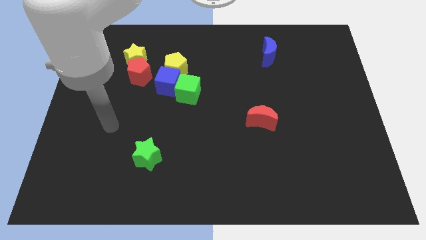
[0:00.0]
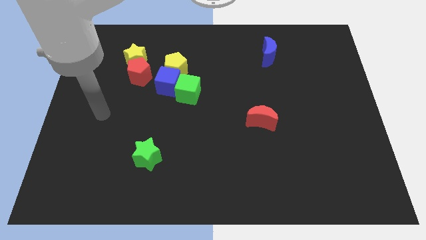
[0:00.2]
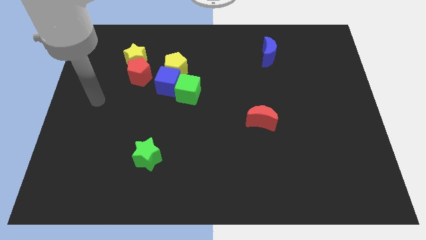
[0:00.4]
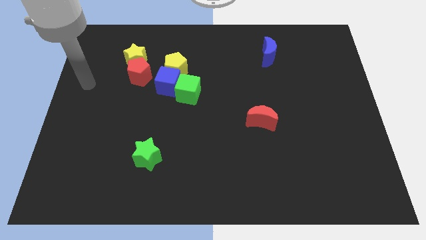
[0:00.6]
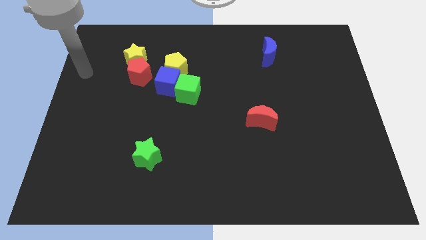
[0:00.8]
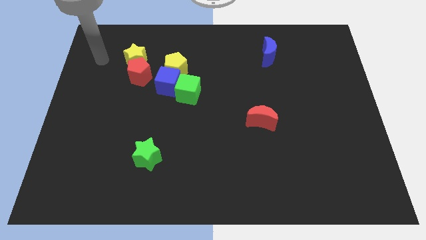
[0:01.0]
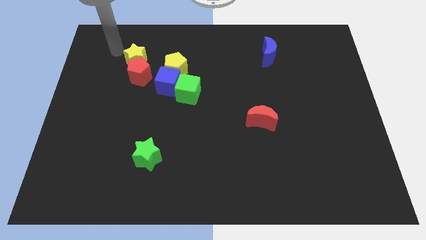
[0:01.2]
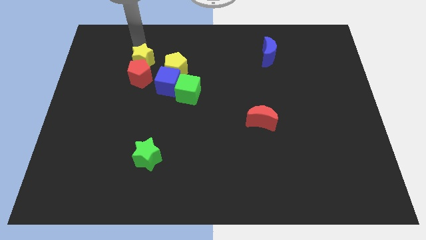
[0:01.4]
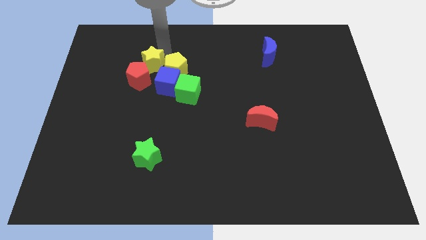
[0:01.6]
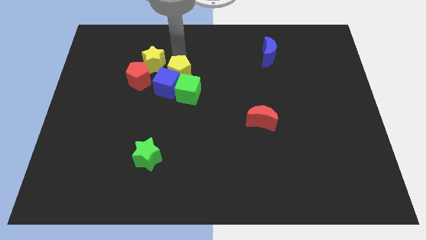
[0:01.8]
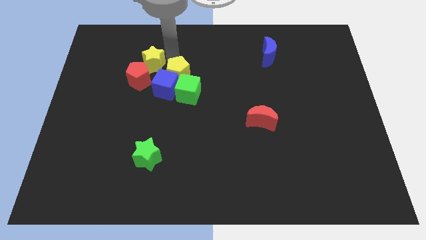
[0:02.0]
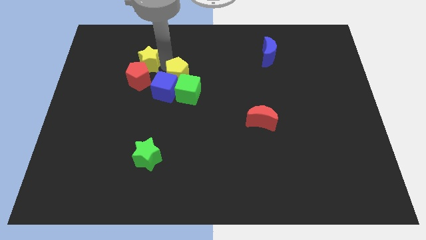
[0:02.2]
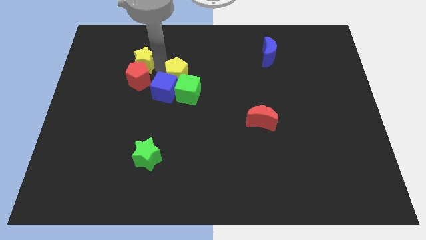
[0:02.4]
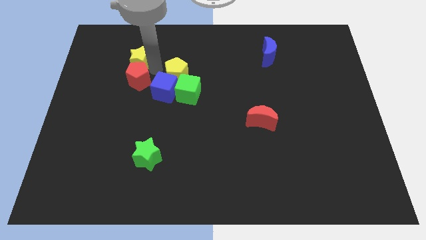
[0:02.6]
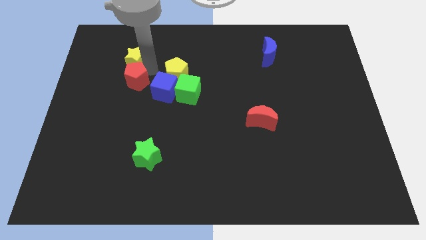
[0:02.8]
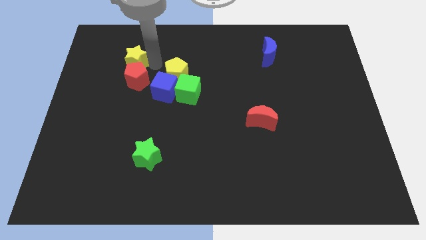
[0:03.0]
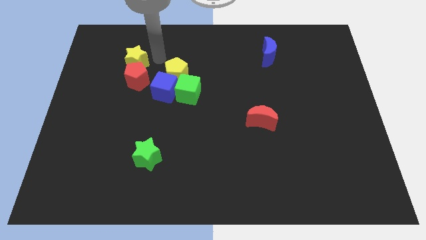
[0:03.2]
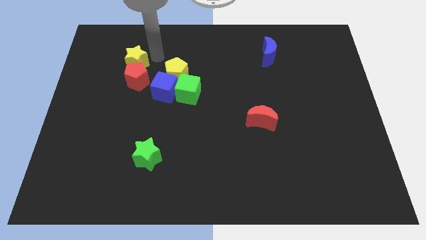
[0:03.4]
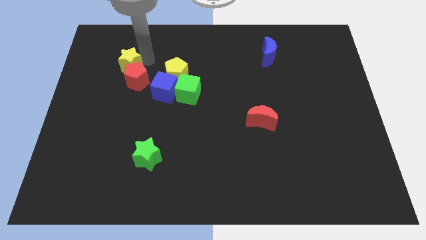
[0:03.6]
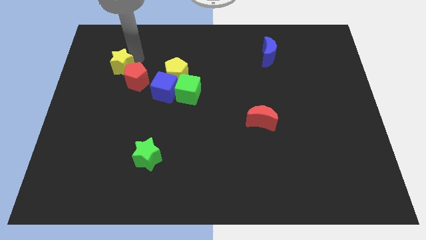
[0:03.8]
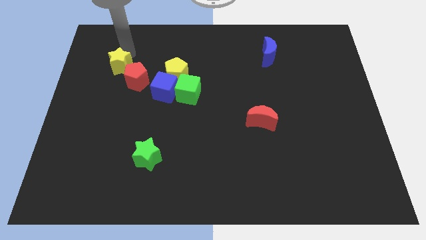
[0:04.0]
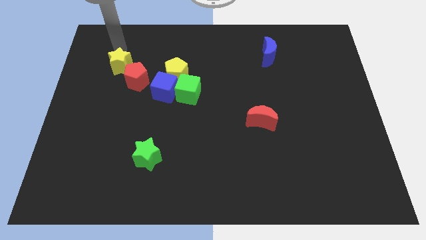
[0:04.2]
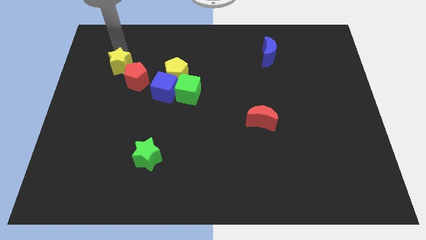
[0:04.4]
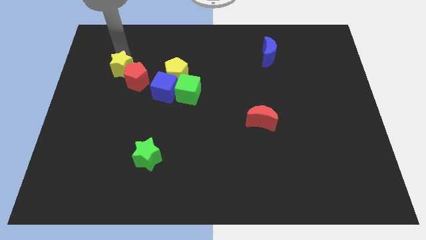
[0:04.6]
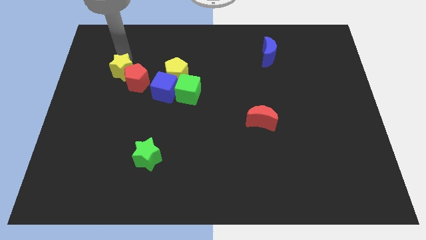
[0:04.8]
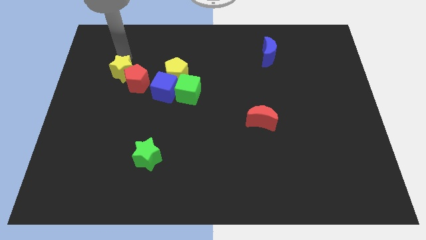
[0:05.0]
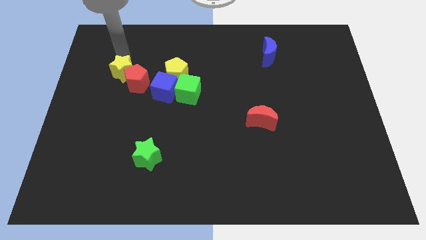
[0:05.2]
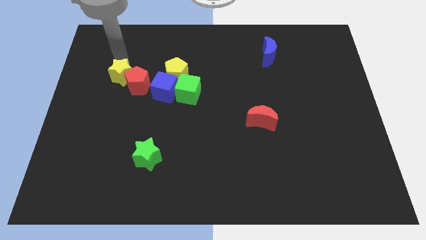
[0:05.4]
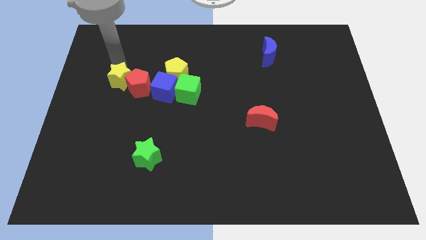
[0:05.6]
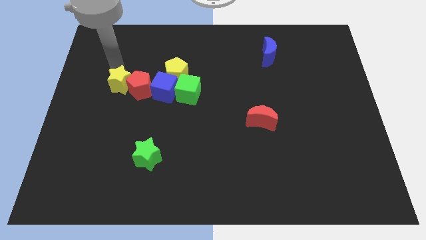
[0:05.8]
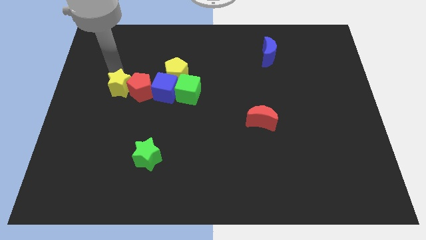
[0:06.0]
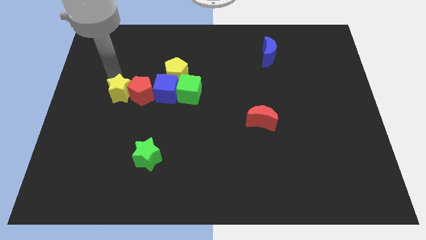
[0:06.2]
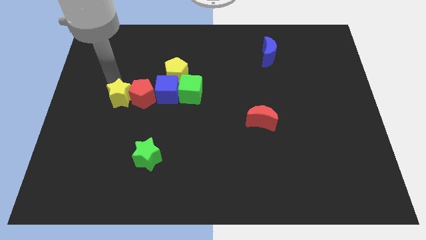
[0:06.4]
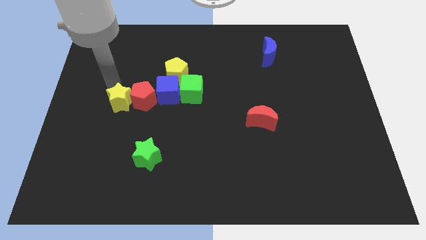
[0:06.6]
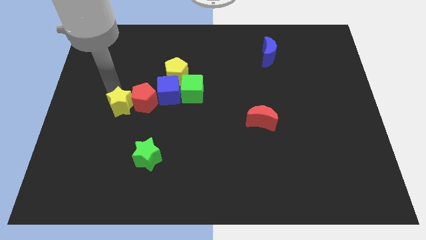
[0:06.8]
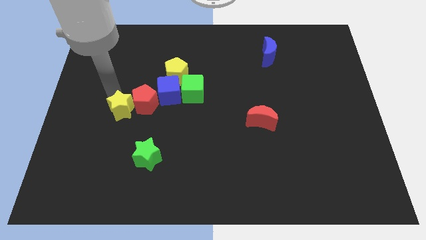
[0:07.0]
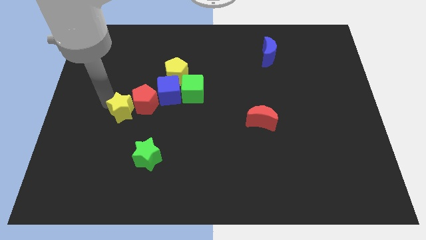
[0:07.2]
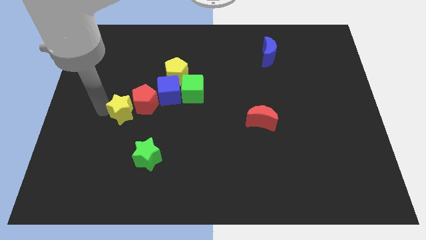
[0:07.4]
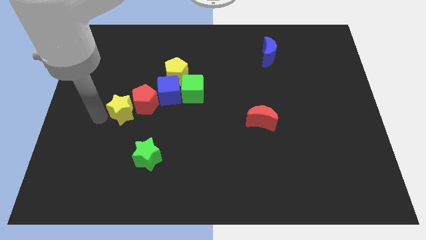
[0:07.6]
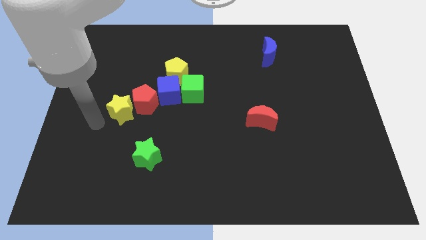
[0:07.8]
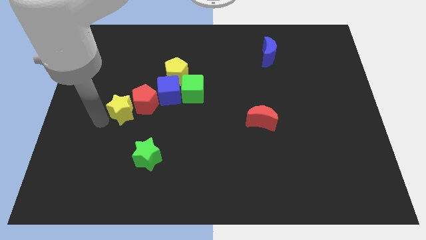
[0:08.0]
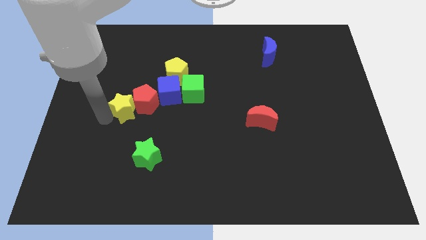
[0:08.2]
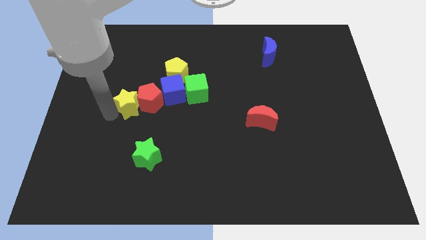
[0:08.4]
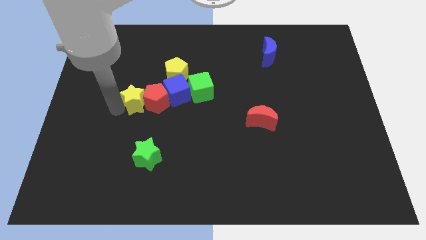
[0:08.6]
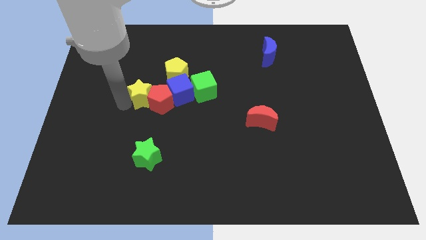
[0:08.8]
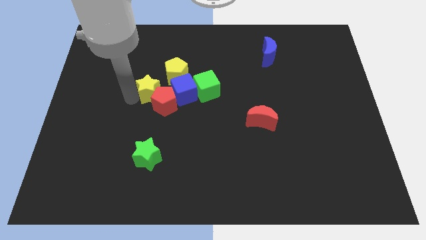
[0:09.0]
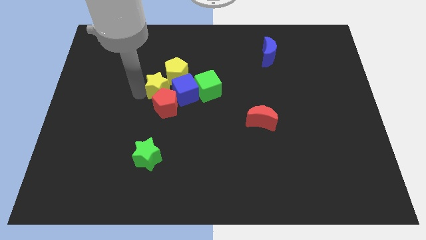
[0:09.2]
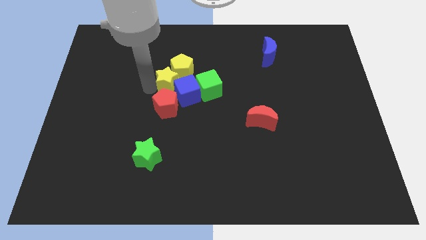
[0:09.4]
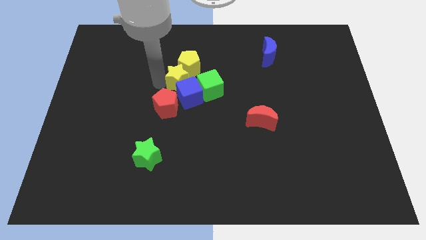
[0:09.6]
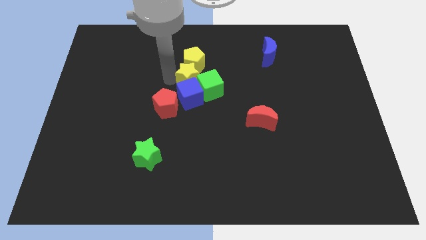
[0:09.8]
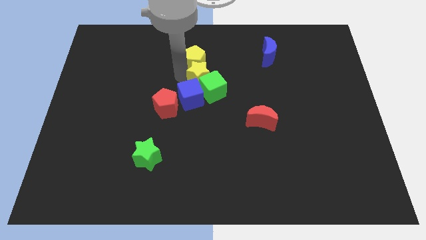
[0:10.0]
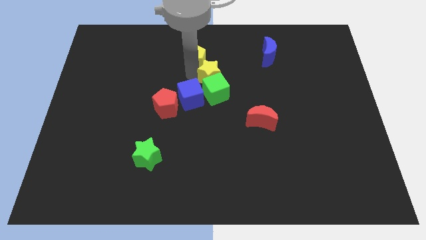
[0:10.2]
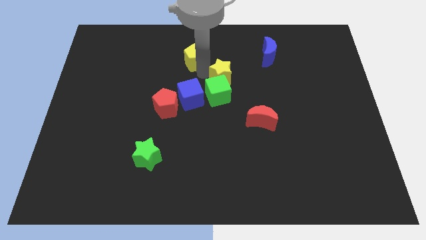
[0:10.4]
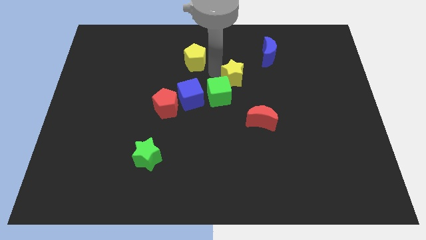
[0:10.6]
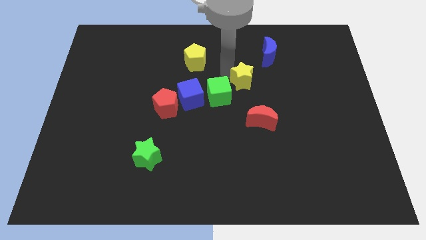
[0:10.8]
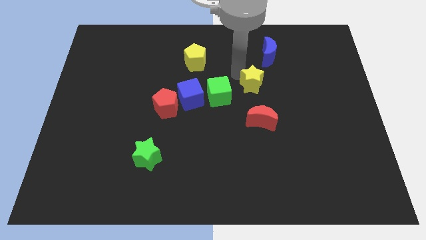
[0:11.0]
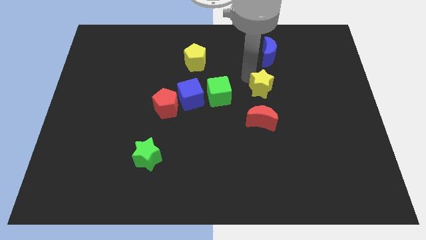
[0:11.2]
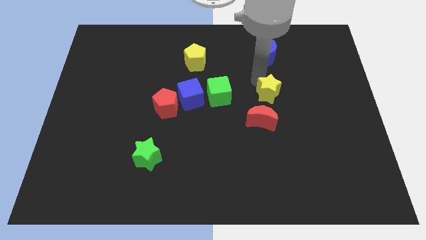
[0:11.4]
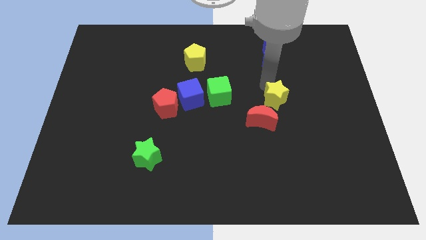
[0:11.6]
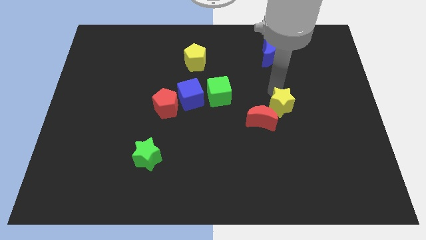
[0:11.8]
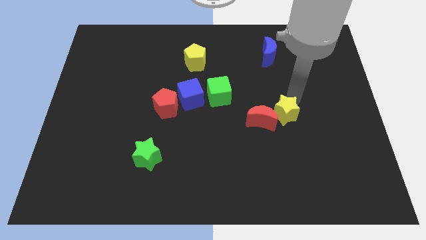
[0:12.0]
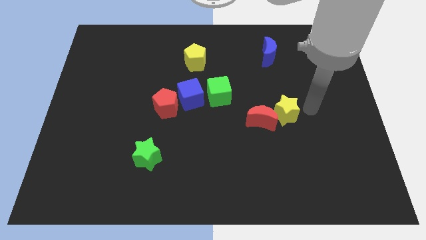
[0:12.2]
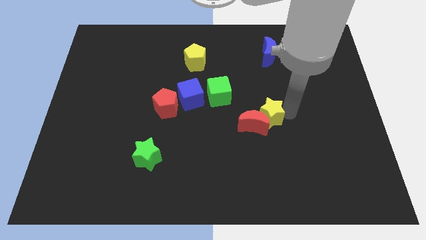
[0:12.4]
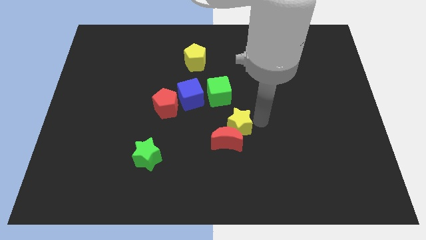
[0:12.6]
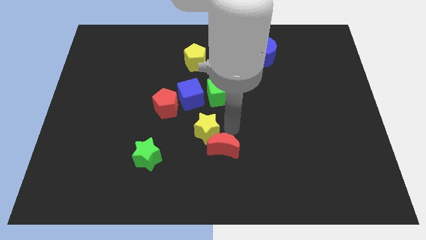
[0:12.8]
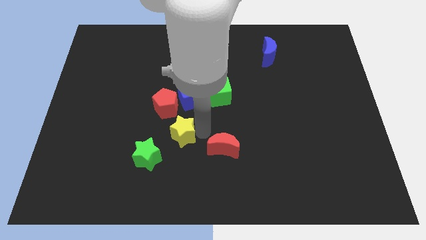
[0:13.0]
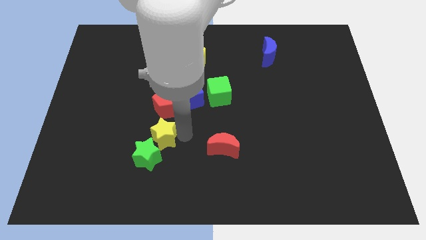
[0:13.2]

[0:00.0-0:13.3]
slide the yellow star next to the green star

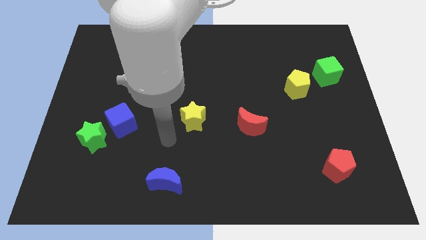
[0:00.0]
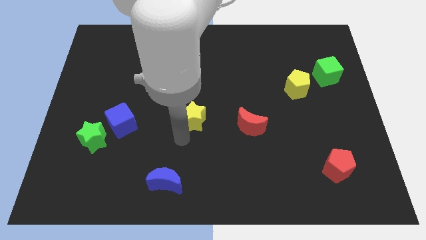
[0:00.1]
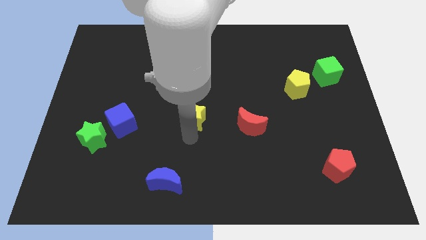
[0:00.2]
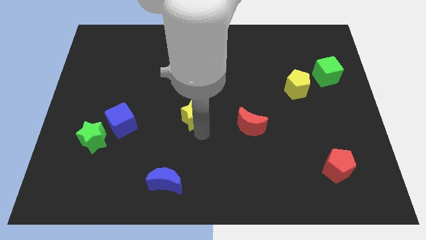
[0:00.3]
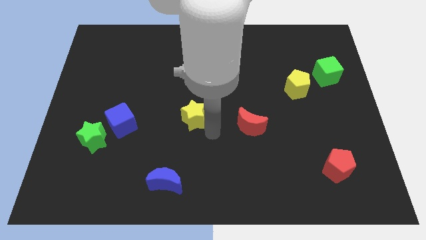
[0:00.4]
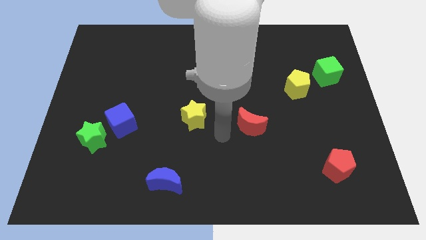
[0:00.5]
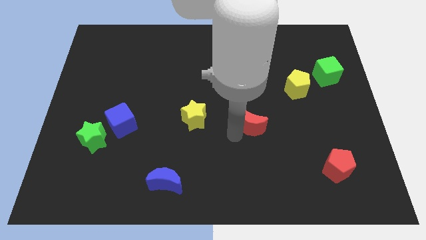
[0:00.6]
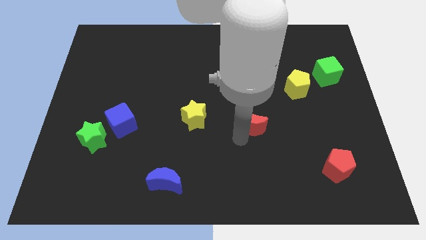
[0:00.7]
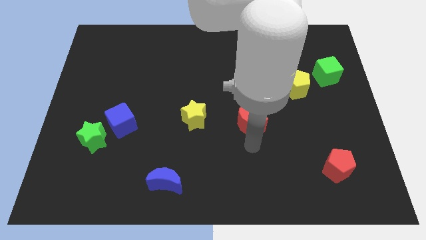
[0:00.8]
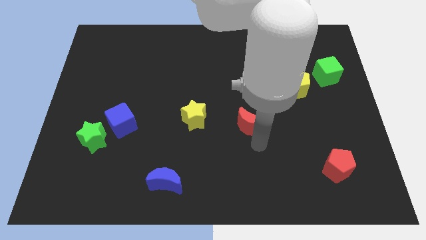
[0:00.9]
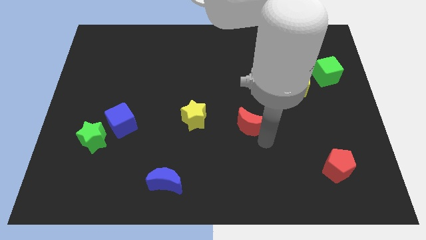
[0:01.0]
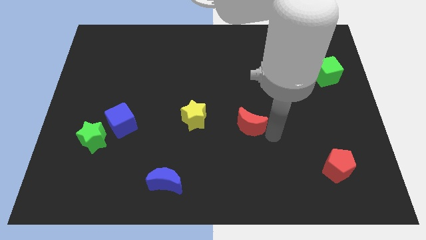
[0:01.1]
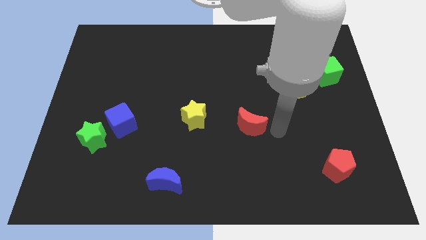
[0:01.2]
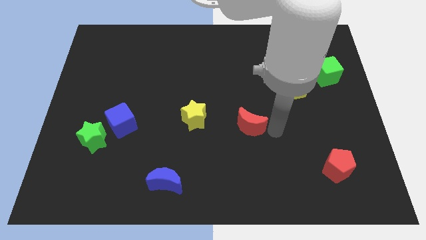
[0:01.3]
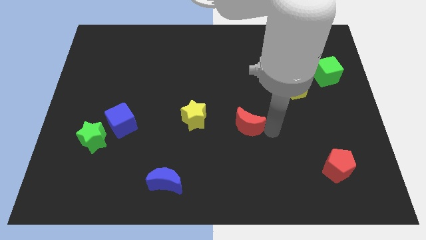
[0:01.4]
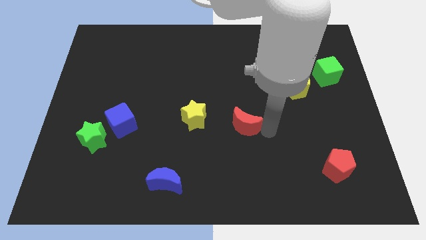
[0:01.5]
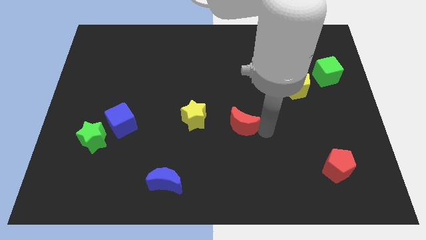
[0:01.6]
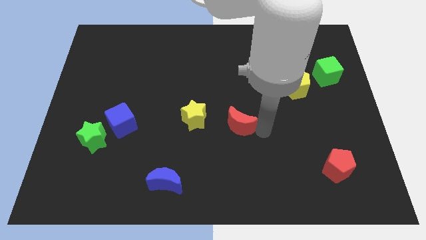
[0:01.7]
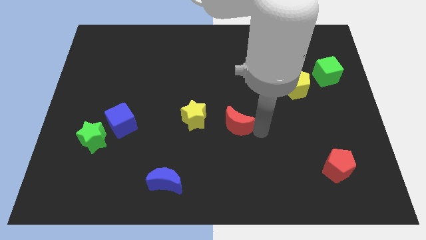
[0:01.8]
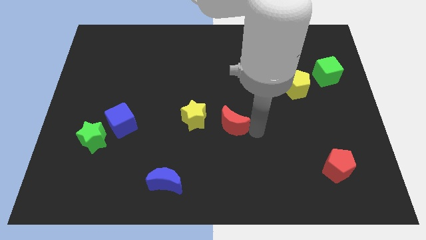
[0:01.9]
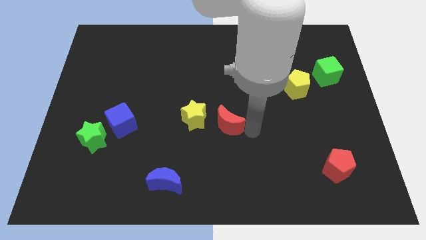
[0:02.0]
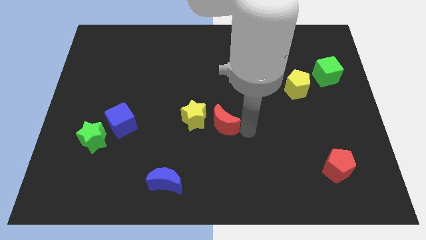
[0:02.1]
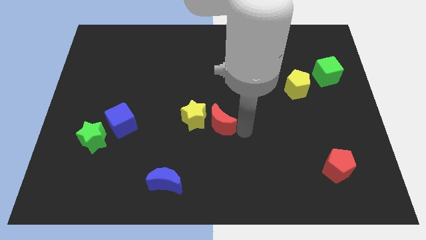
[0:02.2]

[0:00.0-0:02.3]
put the red moon to the yellow star
